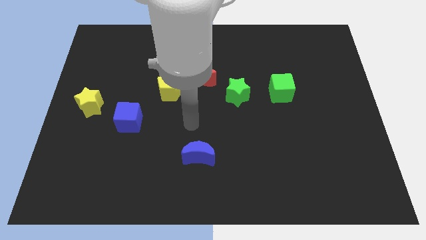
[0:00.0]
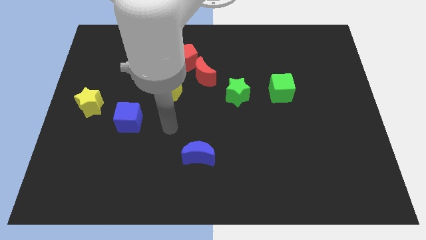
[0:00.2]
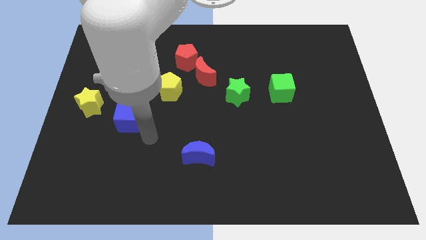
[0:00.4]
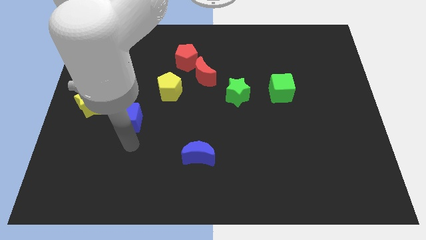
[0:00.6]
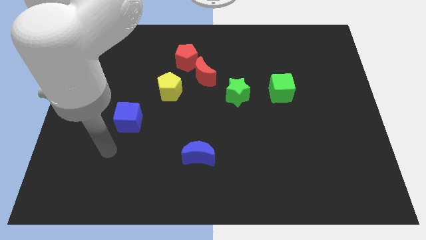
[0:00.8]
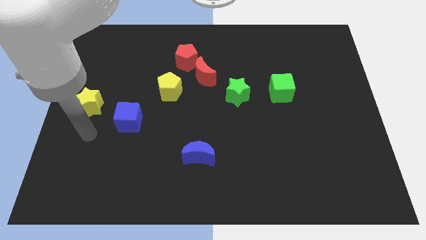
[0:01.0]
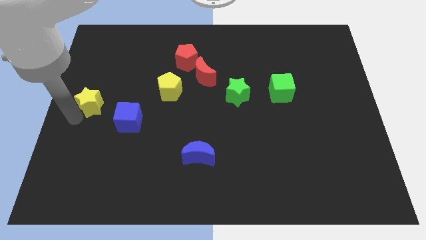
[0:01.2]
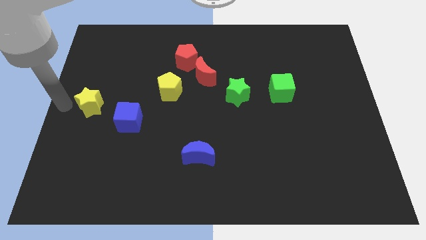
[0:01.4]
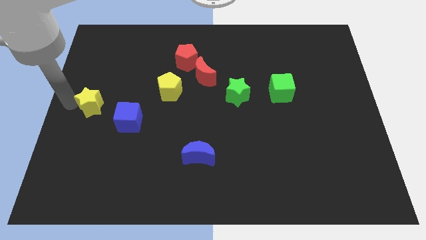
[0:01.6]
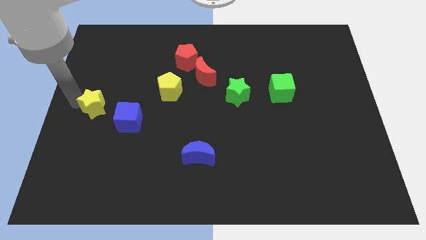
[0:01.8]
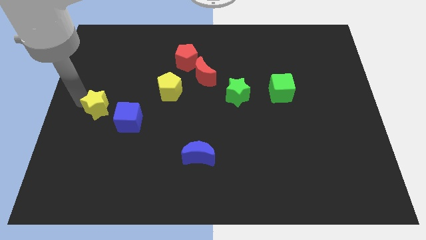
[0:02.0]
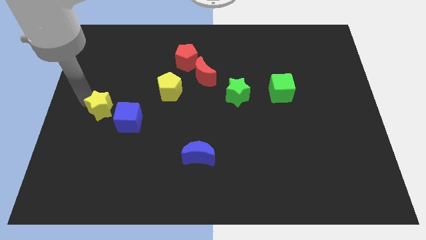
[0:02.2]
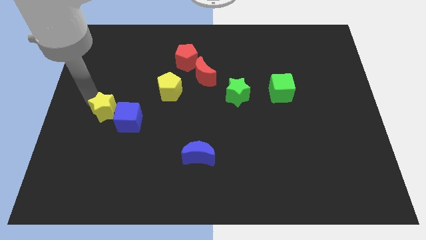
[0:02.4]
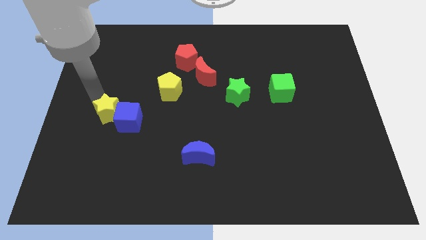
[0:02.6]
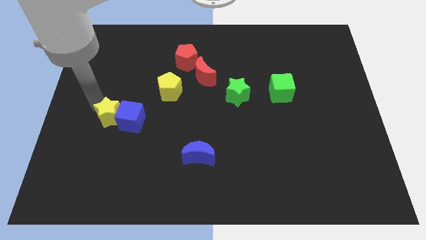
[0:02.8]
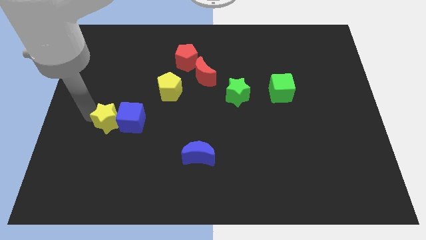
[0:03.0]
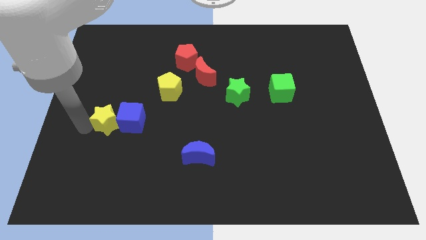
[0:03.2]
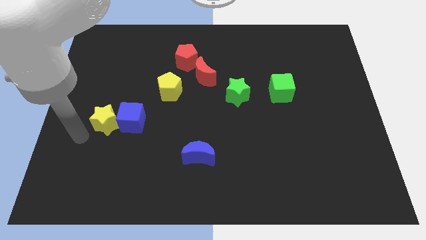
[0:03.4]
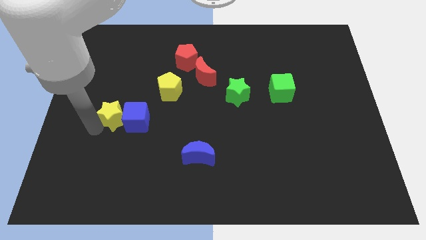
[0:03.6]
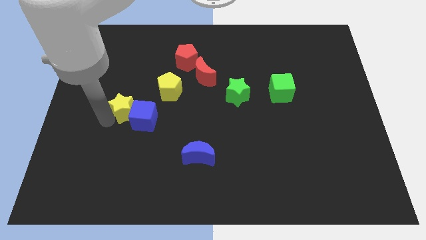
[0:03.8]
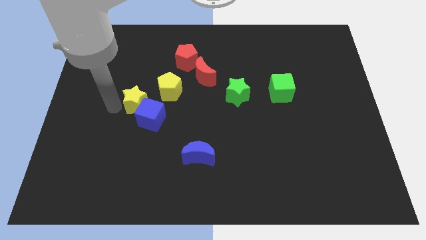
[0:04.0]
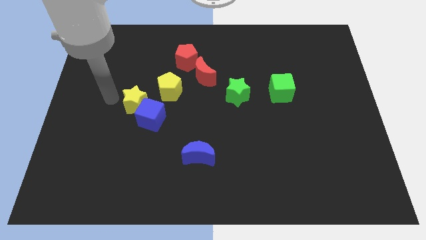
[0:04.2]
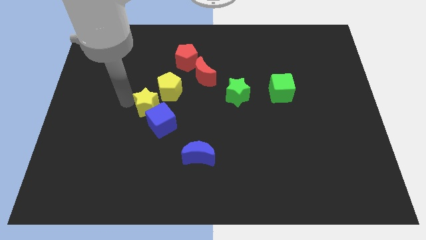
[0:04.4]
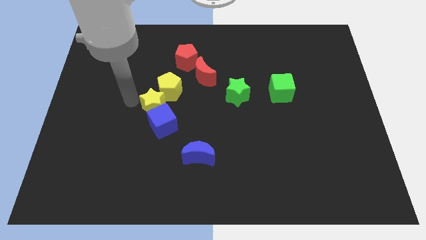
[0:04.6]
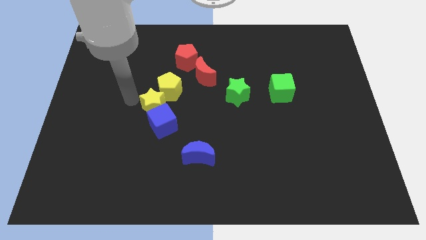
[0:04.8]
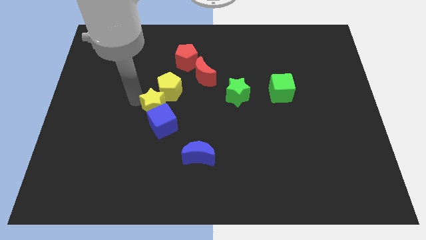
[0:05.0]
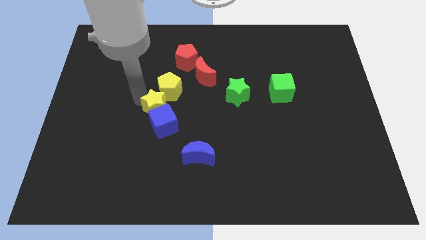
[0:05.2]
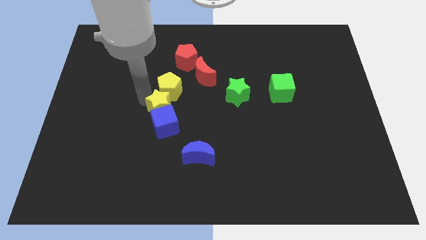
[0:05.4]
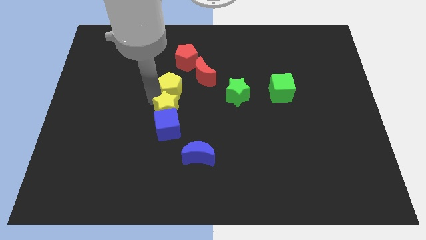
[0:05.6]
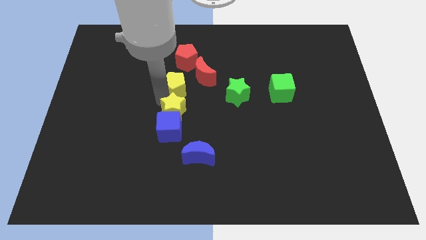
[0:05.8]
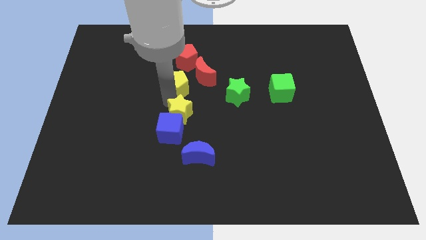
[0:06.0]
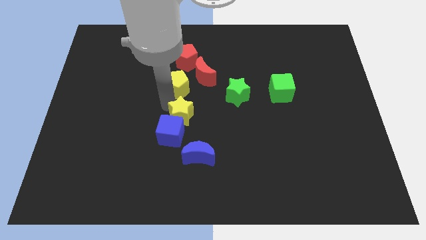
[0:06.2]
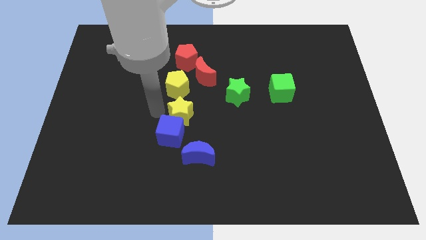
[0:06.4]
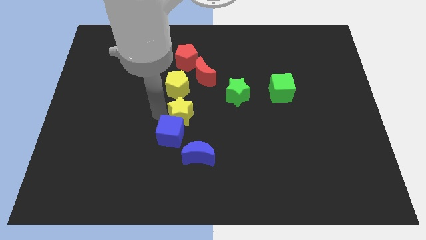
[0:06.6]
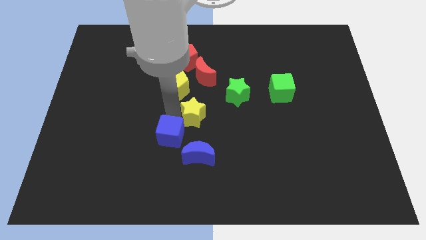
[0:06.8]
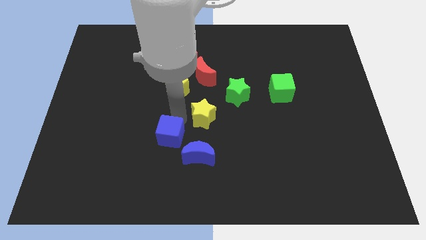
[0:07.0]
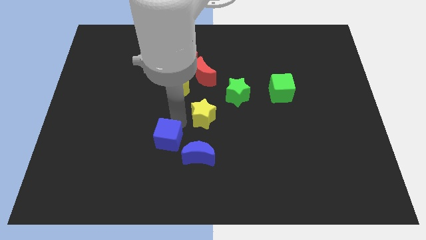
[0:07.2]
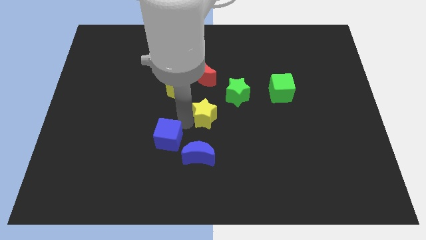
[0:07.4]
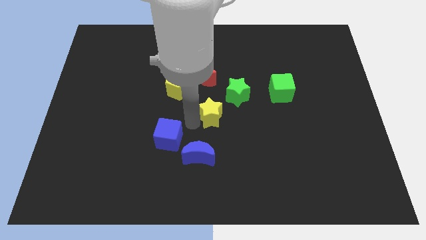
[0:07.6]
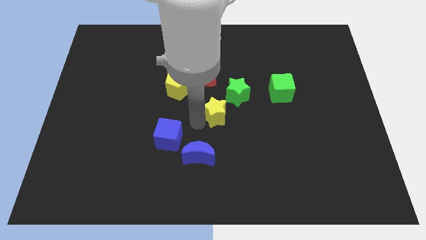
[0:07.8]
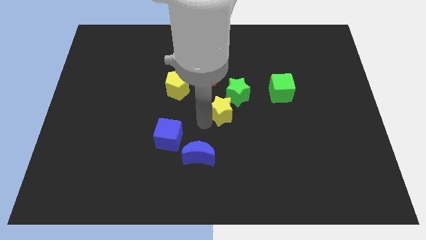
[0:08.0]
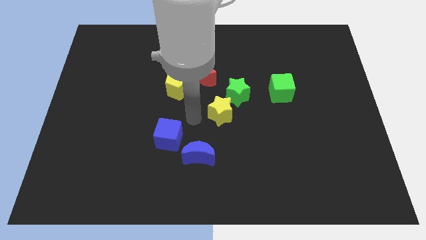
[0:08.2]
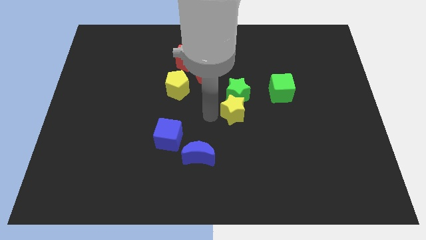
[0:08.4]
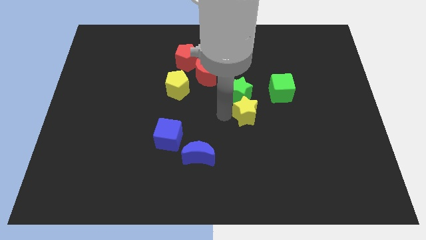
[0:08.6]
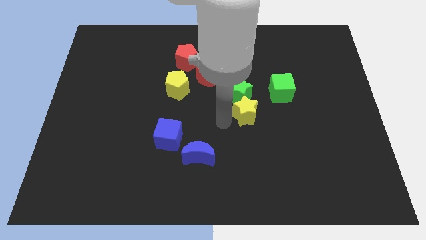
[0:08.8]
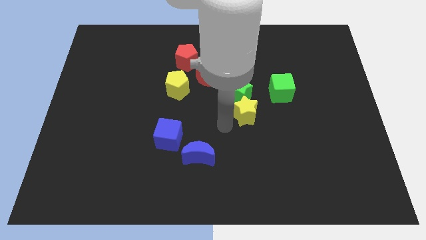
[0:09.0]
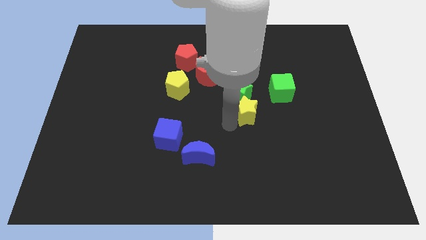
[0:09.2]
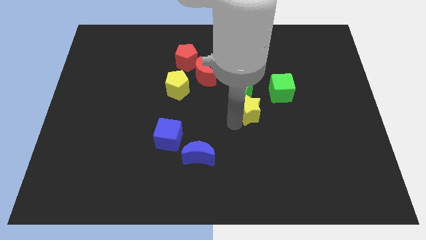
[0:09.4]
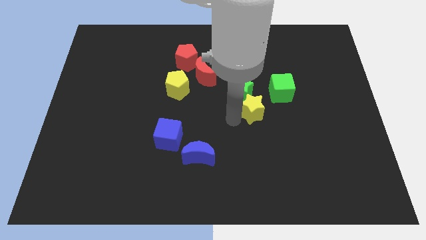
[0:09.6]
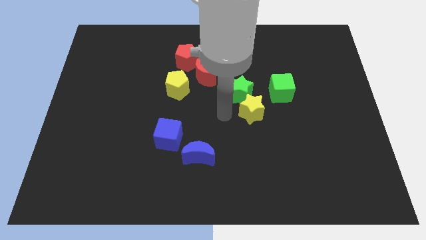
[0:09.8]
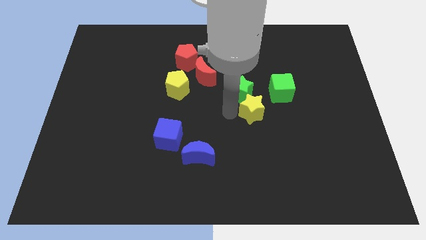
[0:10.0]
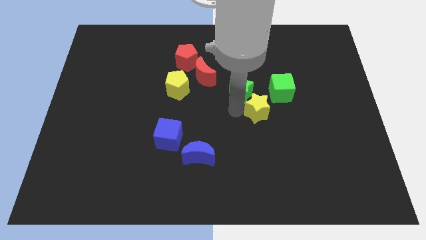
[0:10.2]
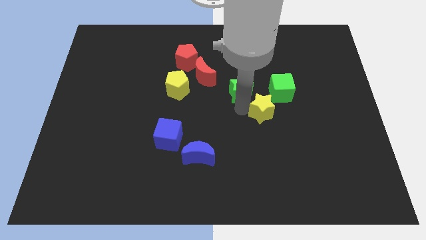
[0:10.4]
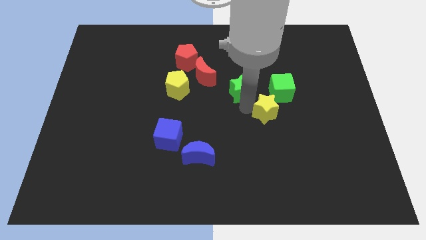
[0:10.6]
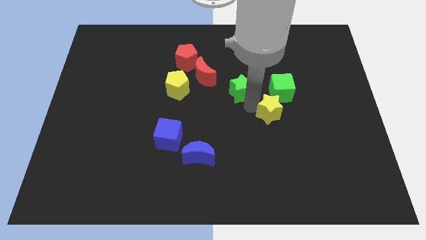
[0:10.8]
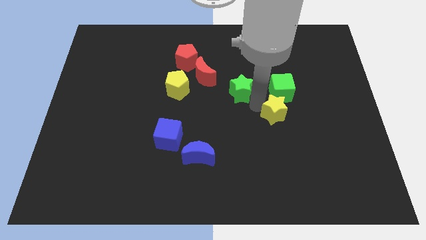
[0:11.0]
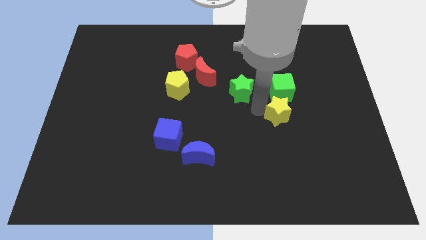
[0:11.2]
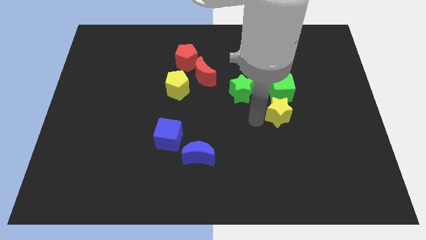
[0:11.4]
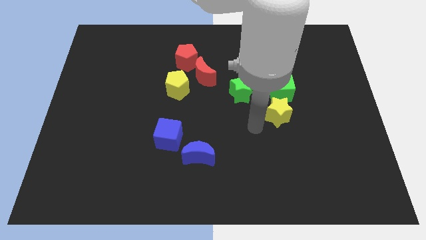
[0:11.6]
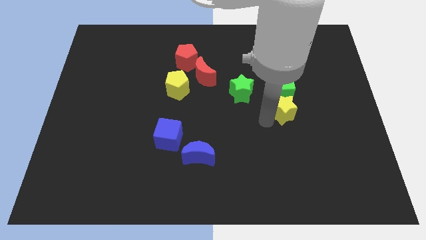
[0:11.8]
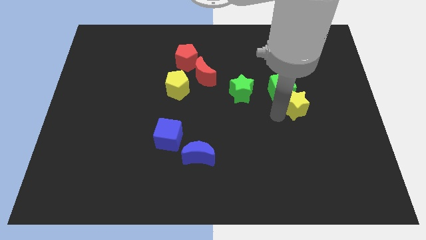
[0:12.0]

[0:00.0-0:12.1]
slide the yellow star right of the green star

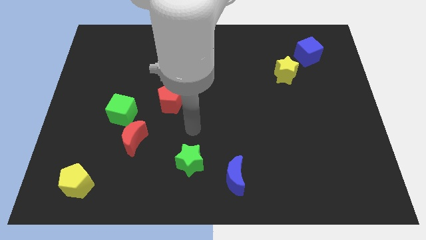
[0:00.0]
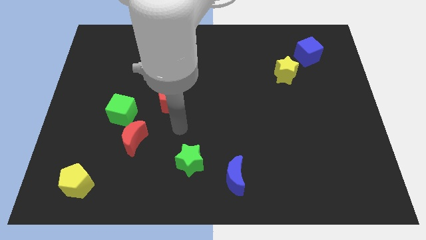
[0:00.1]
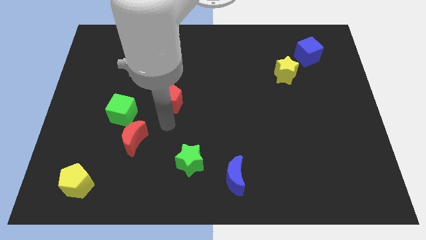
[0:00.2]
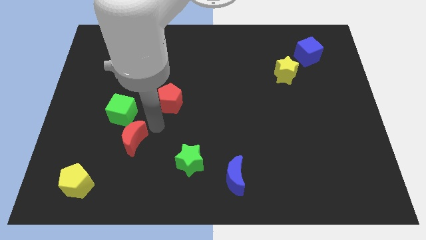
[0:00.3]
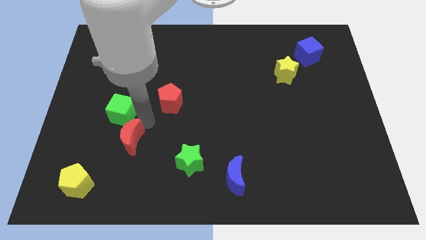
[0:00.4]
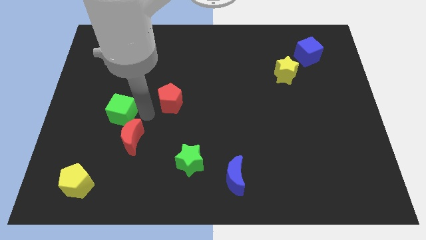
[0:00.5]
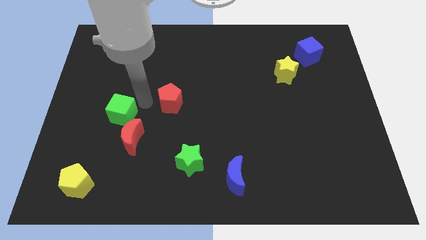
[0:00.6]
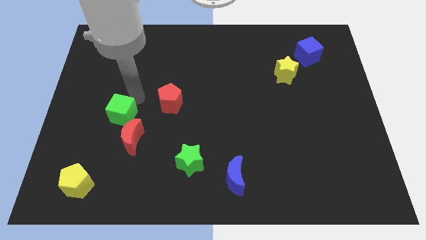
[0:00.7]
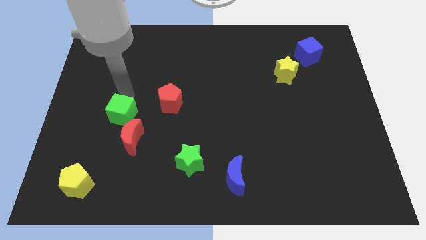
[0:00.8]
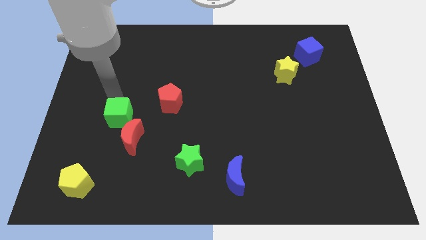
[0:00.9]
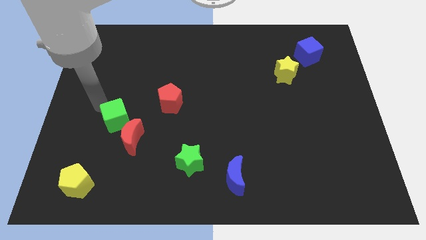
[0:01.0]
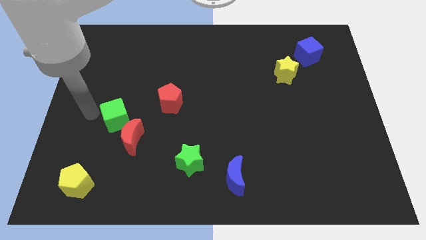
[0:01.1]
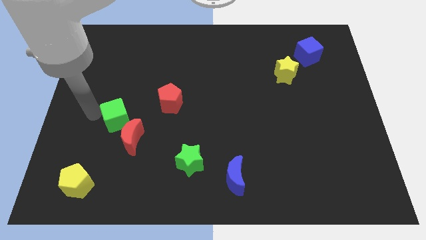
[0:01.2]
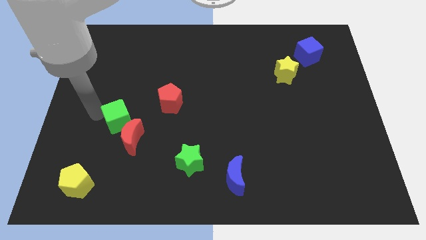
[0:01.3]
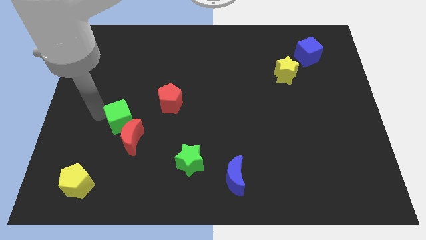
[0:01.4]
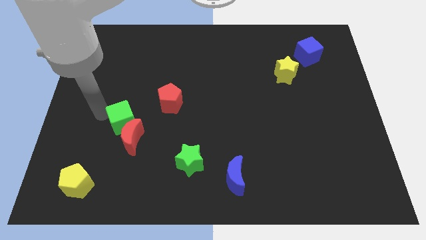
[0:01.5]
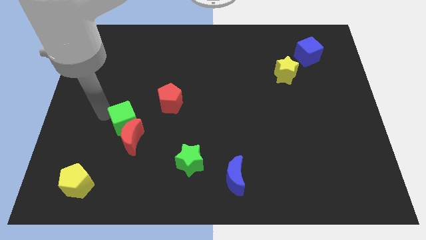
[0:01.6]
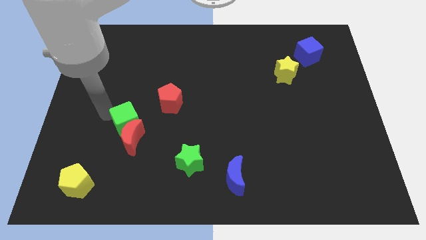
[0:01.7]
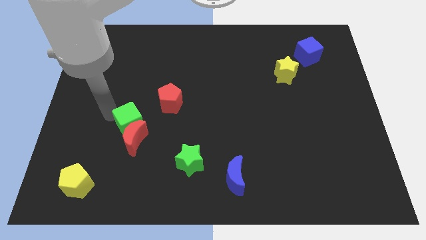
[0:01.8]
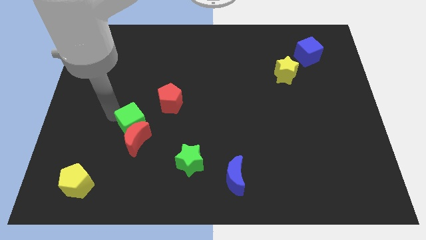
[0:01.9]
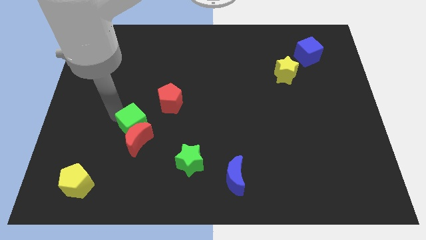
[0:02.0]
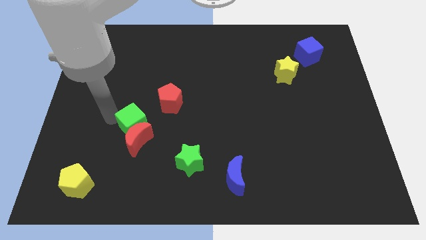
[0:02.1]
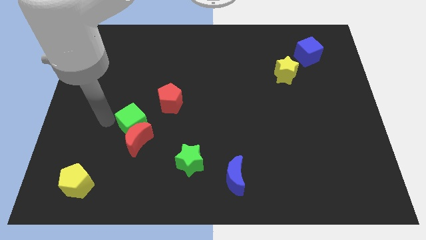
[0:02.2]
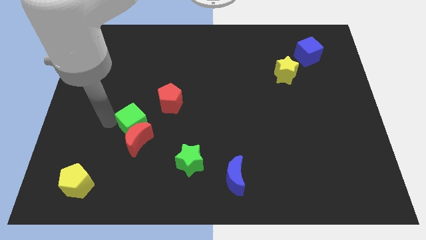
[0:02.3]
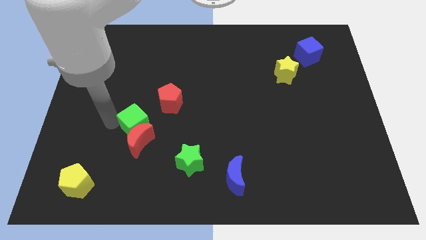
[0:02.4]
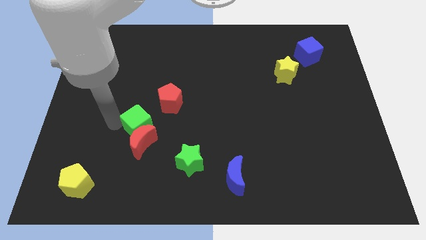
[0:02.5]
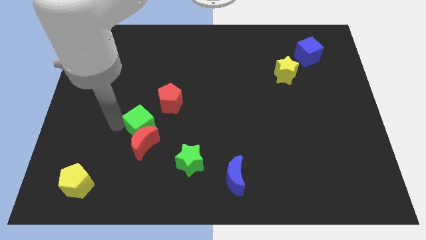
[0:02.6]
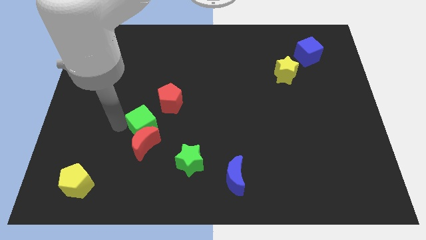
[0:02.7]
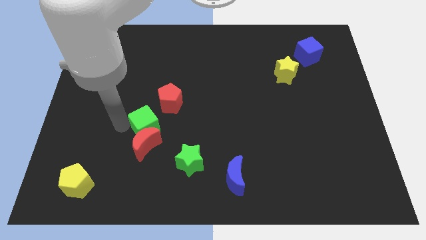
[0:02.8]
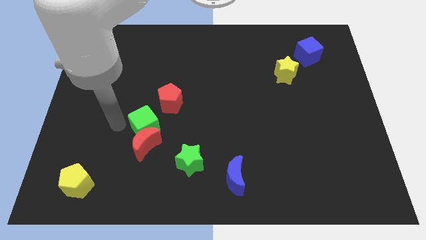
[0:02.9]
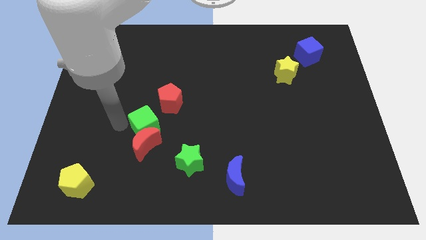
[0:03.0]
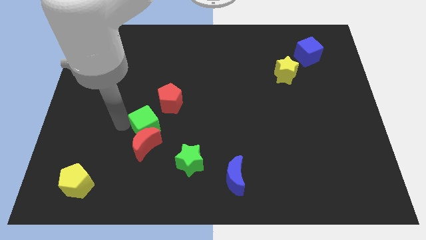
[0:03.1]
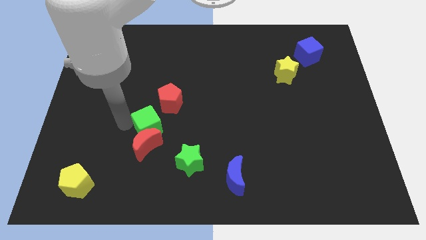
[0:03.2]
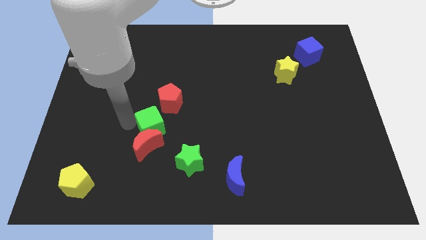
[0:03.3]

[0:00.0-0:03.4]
slide the green cube diagonally up and to the left of the green star
